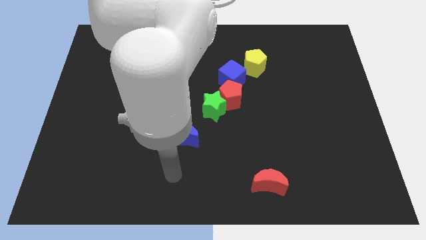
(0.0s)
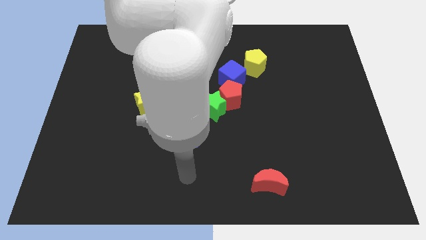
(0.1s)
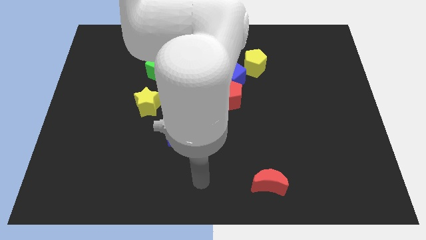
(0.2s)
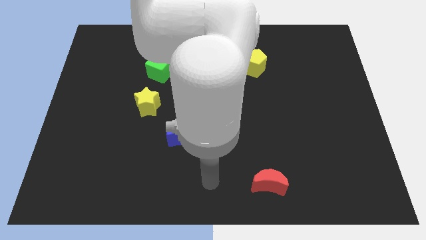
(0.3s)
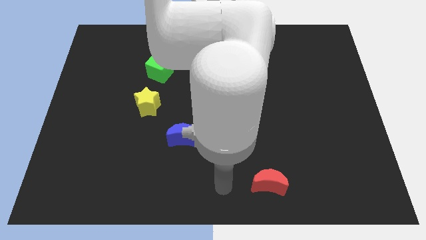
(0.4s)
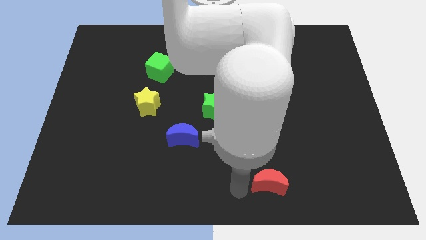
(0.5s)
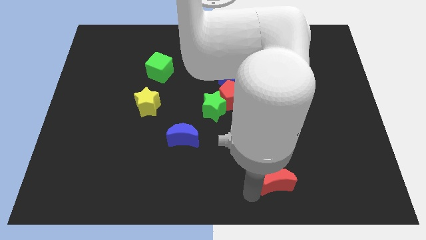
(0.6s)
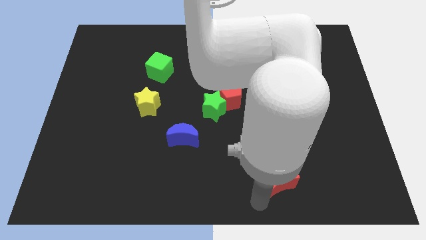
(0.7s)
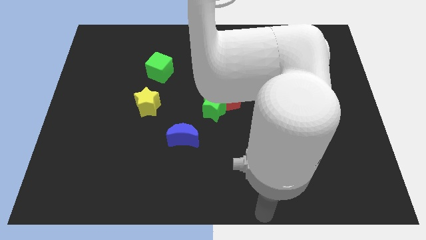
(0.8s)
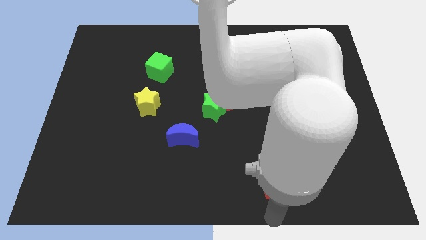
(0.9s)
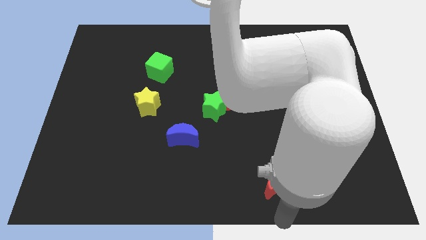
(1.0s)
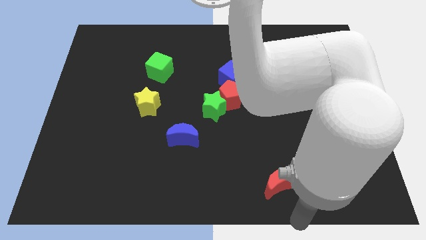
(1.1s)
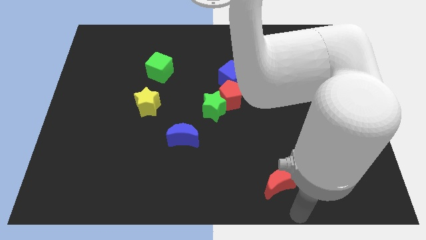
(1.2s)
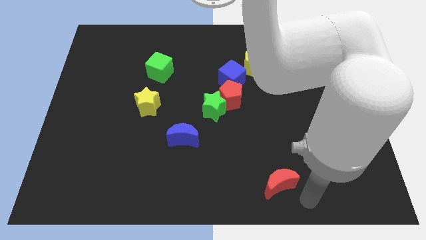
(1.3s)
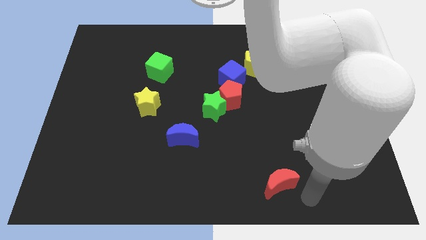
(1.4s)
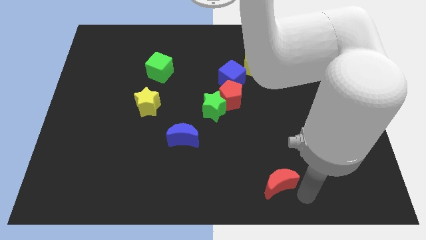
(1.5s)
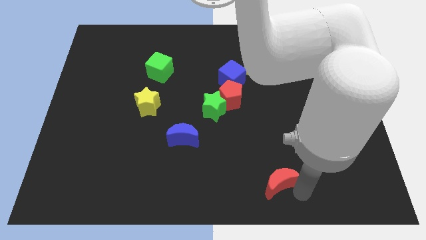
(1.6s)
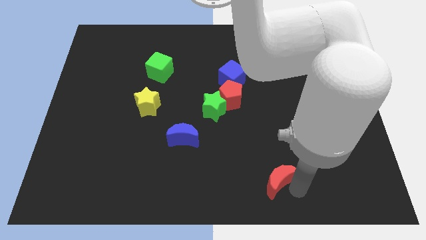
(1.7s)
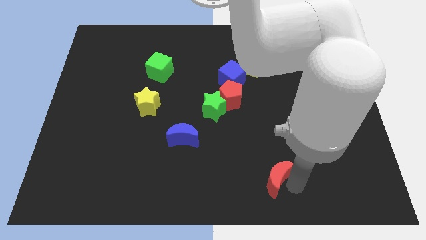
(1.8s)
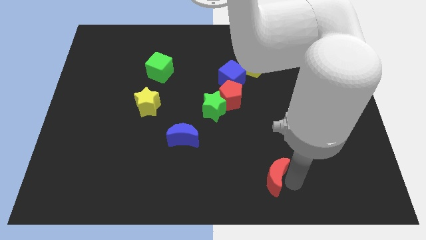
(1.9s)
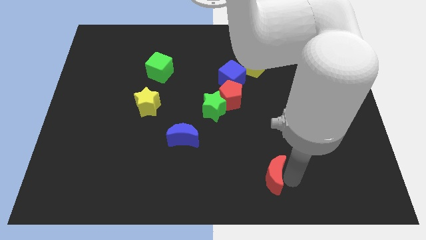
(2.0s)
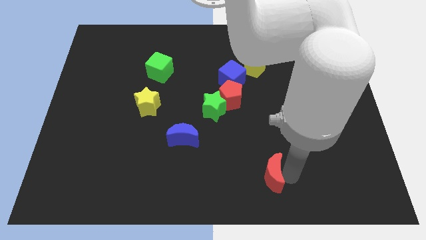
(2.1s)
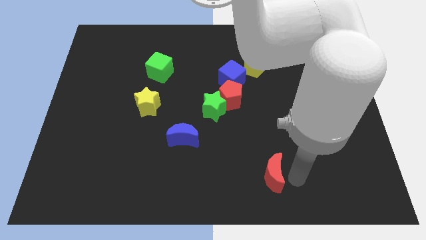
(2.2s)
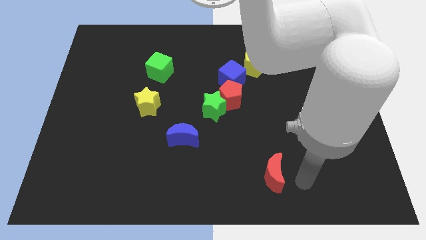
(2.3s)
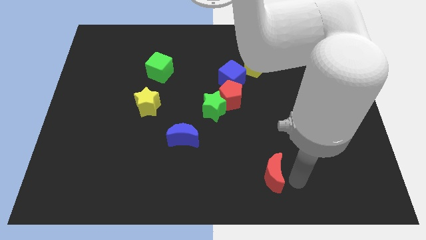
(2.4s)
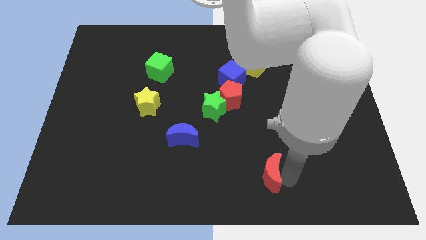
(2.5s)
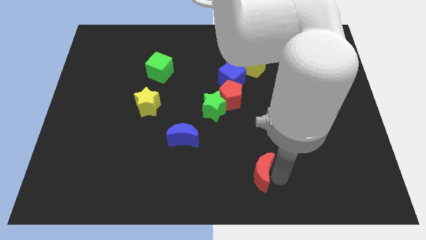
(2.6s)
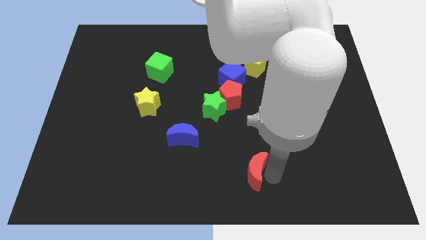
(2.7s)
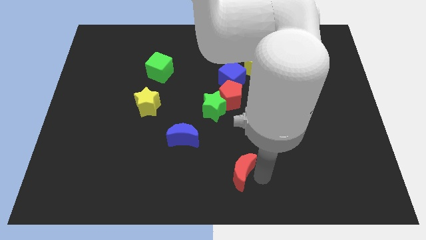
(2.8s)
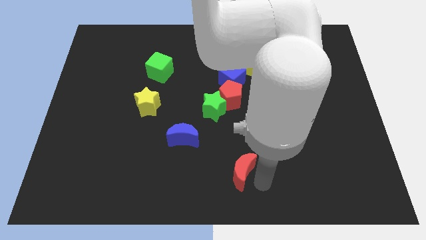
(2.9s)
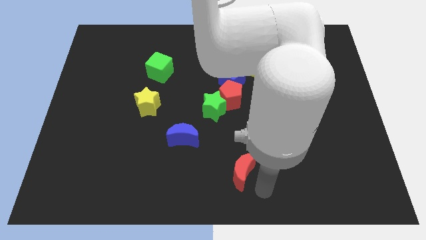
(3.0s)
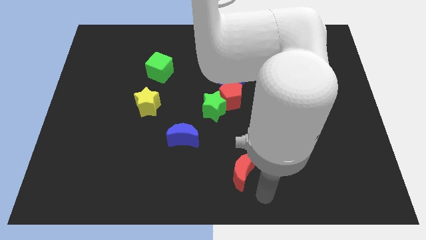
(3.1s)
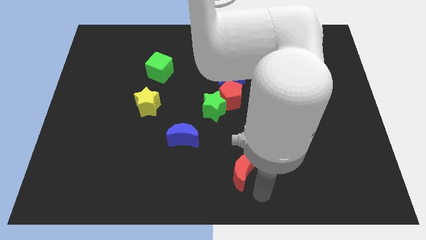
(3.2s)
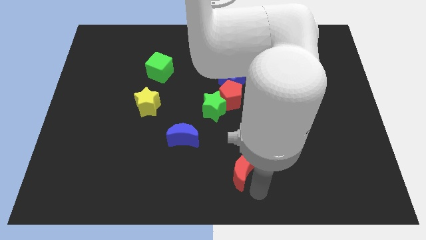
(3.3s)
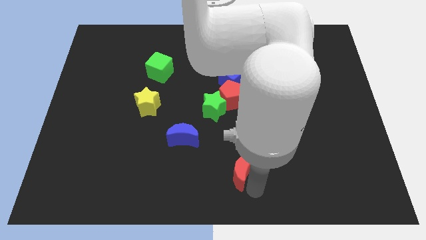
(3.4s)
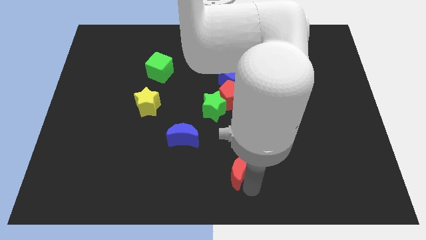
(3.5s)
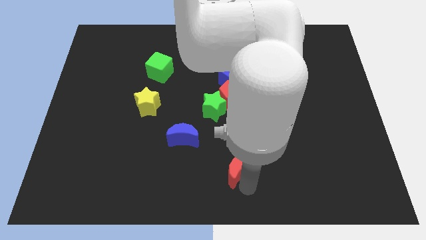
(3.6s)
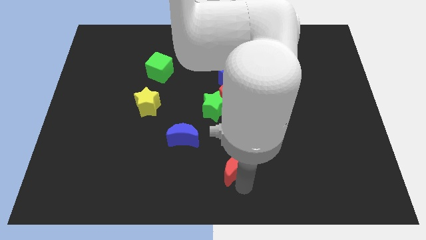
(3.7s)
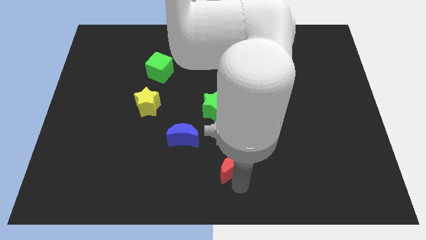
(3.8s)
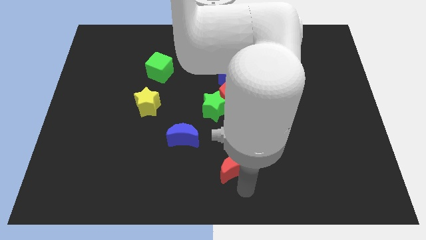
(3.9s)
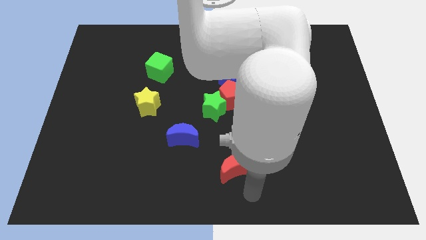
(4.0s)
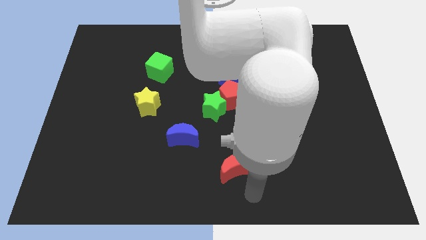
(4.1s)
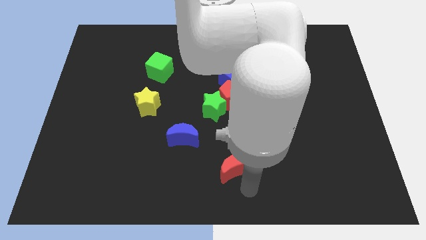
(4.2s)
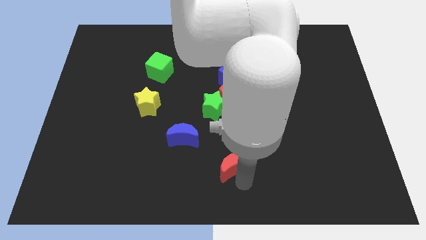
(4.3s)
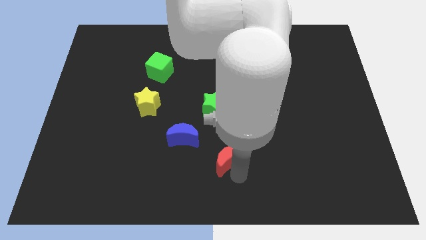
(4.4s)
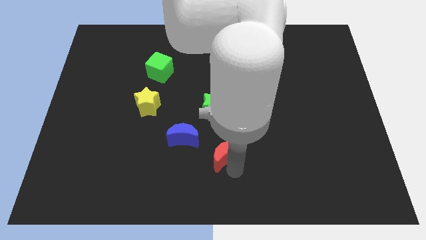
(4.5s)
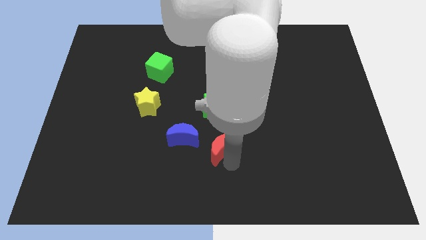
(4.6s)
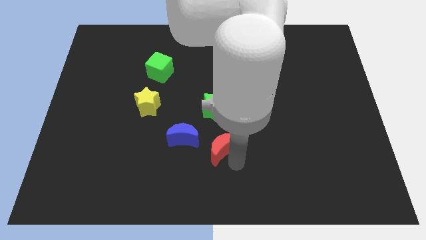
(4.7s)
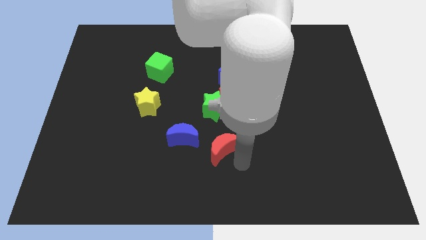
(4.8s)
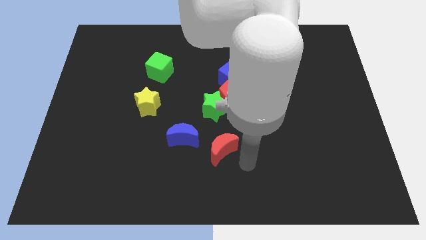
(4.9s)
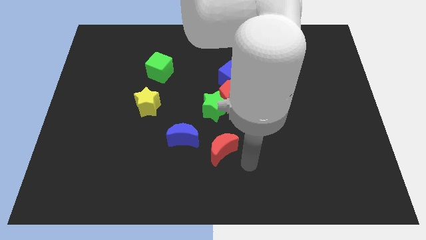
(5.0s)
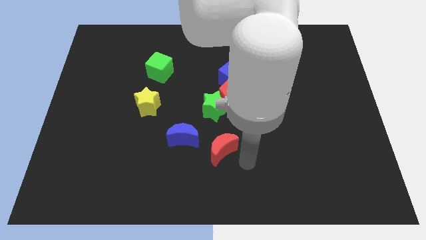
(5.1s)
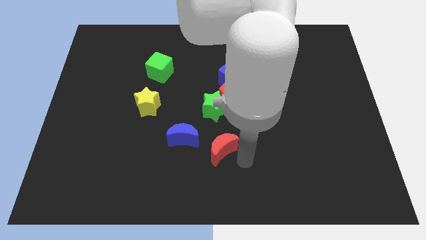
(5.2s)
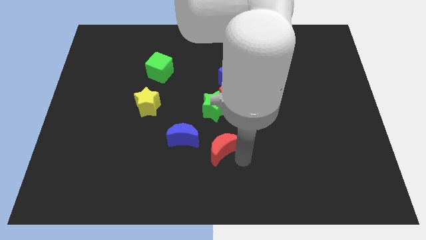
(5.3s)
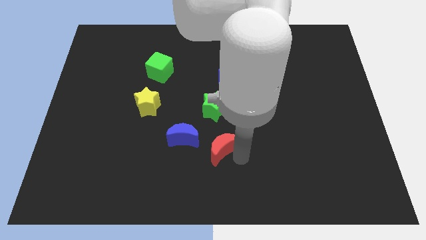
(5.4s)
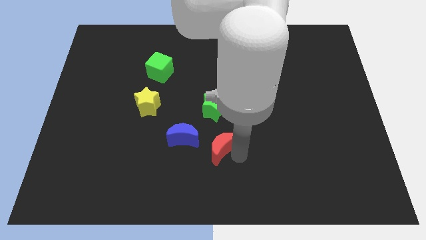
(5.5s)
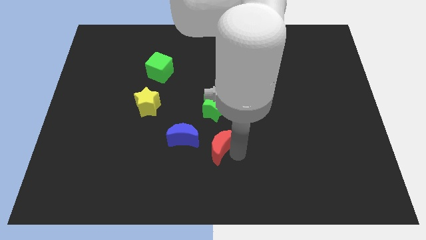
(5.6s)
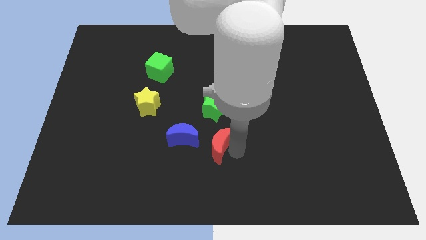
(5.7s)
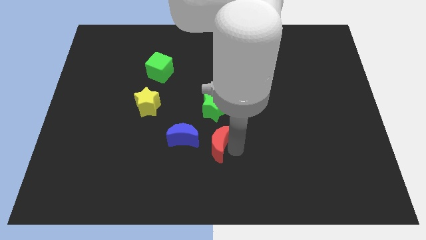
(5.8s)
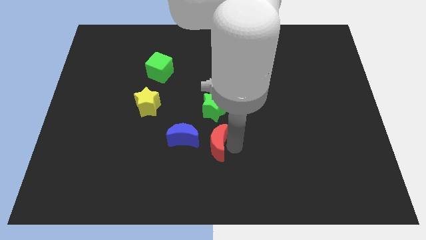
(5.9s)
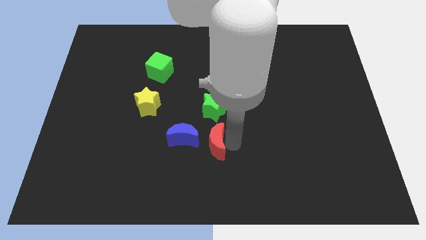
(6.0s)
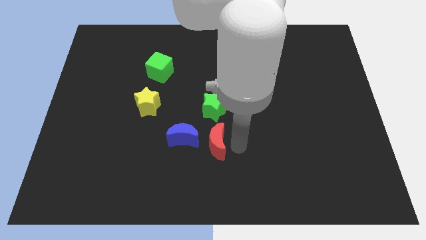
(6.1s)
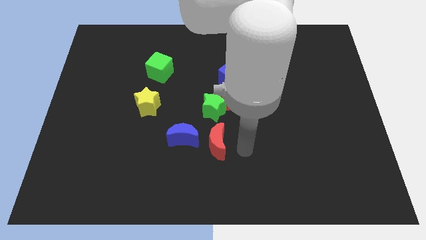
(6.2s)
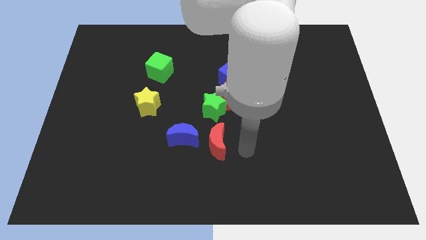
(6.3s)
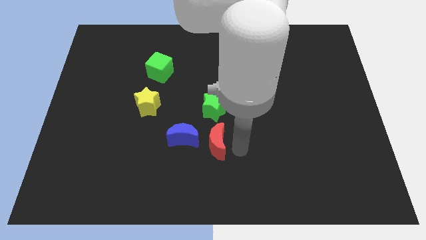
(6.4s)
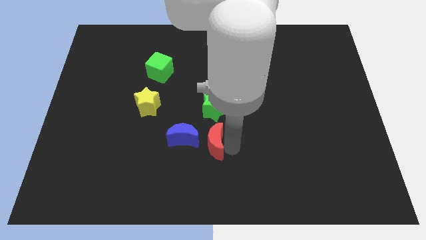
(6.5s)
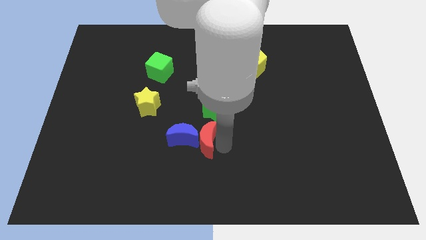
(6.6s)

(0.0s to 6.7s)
push the red moon to the blue moon

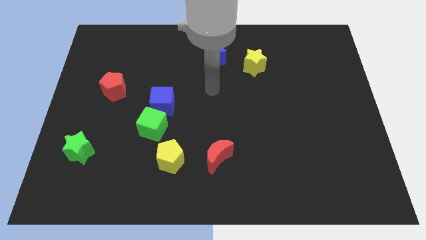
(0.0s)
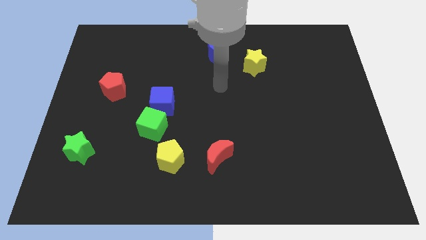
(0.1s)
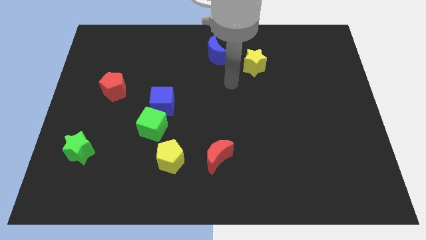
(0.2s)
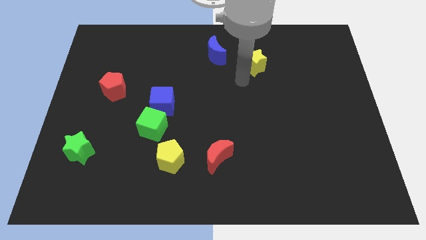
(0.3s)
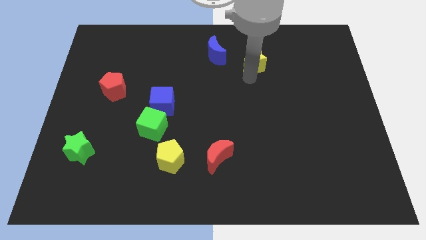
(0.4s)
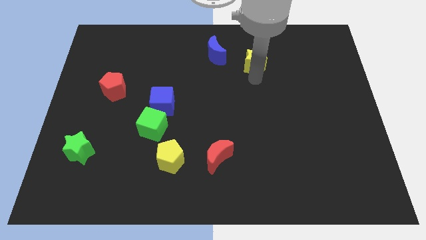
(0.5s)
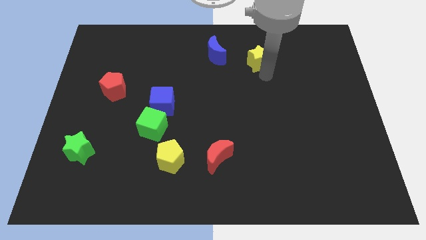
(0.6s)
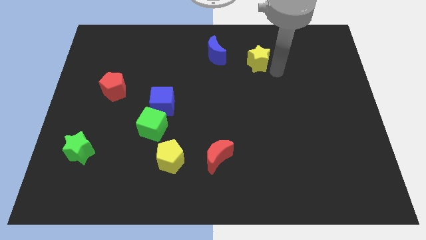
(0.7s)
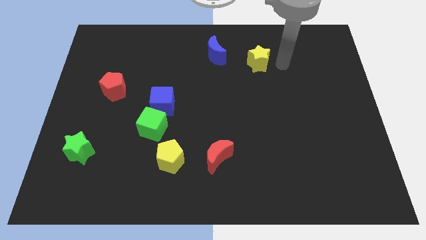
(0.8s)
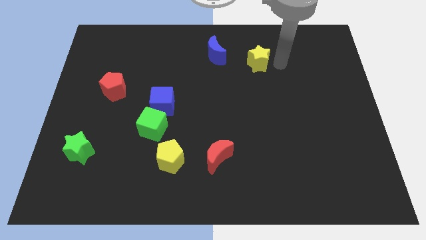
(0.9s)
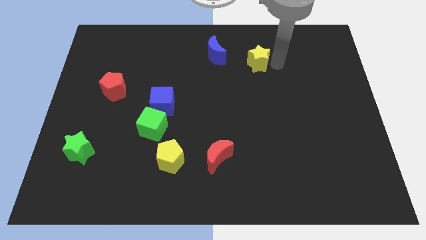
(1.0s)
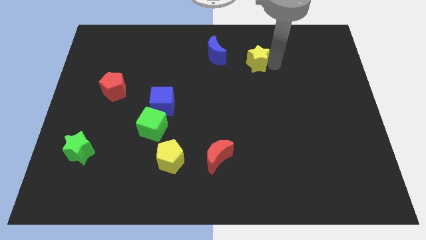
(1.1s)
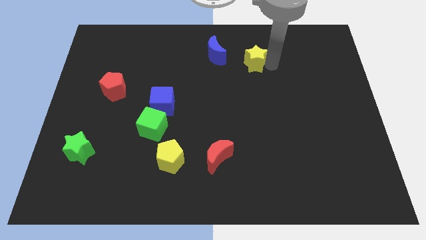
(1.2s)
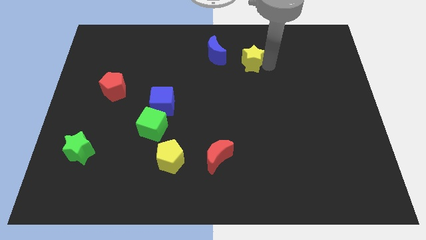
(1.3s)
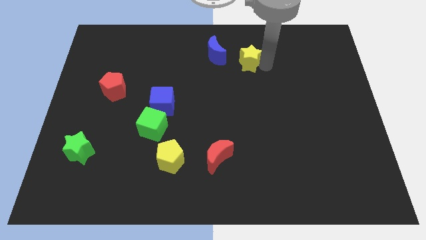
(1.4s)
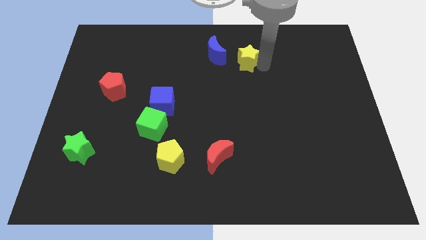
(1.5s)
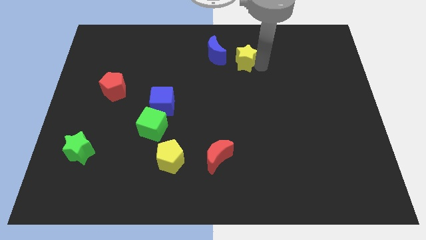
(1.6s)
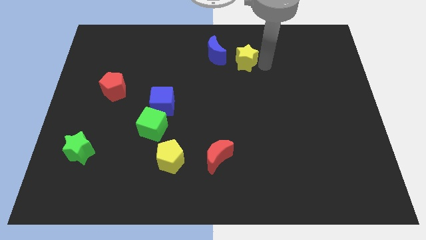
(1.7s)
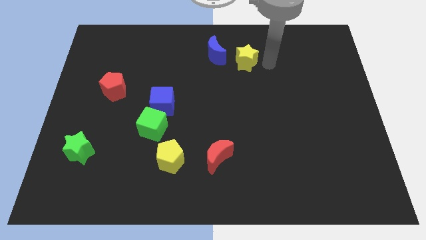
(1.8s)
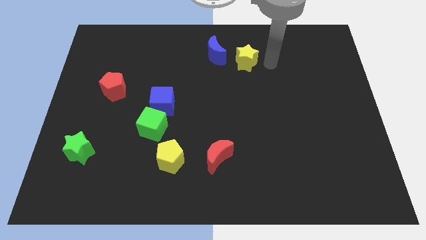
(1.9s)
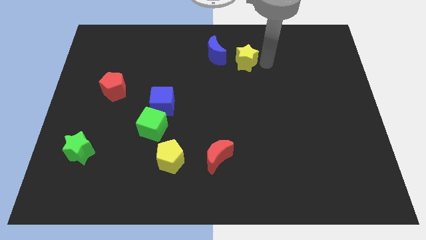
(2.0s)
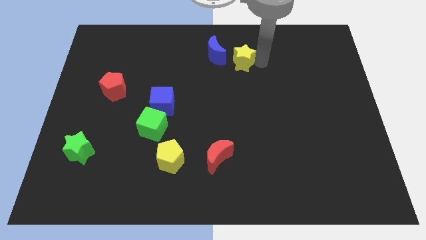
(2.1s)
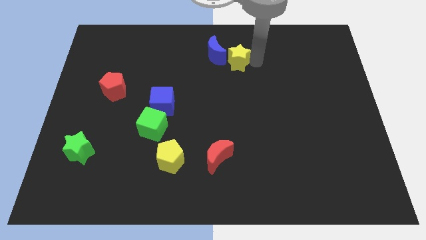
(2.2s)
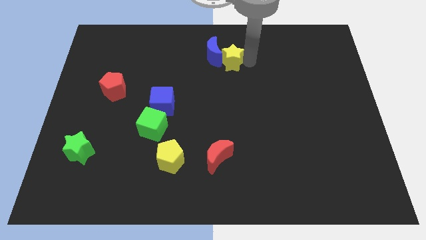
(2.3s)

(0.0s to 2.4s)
slide the yellow star next to the blue moon
